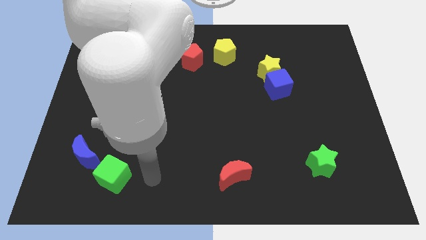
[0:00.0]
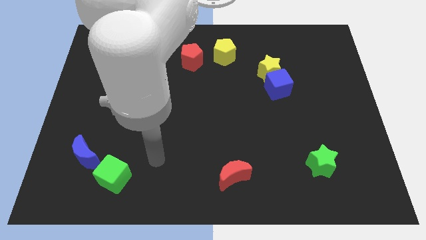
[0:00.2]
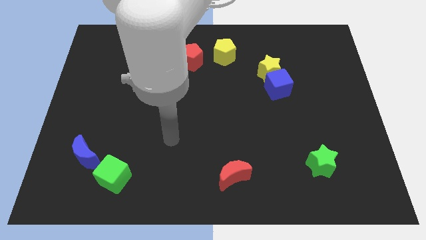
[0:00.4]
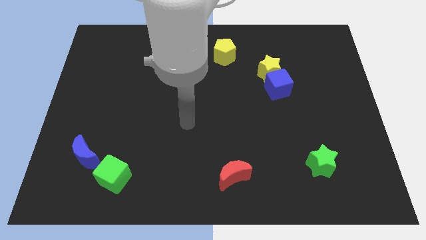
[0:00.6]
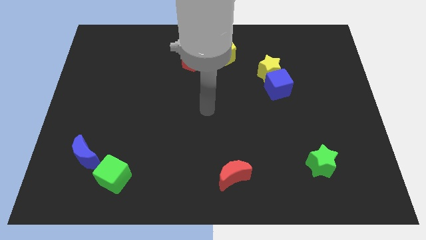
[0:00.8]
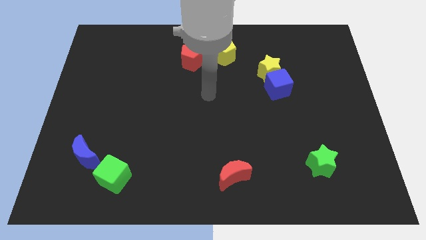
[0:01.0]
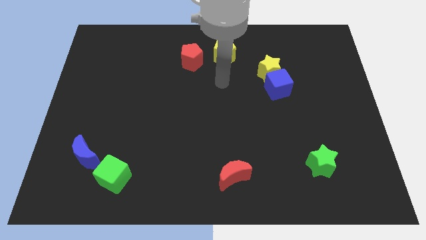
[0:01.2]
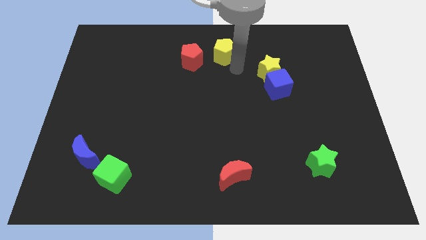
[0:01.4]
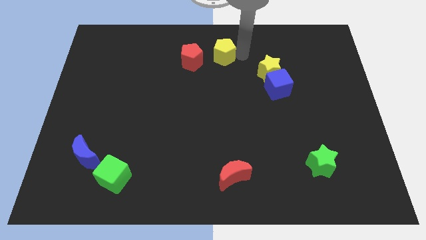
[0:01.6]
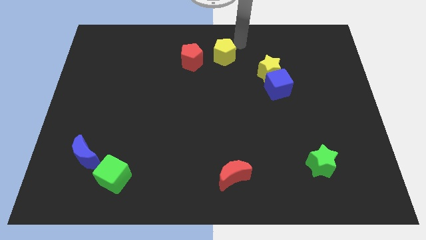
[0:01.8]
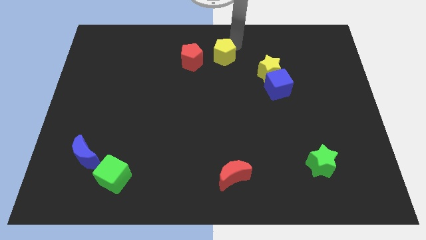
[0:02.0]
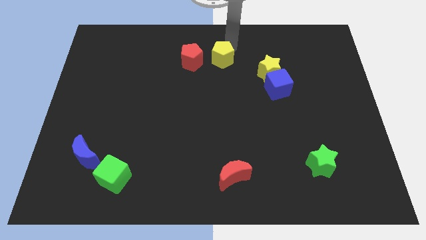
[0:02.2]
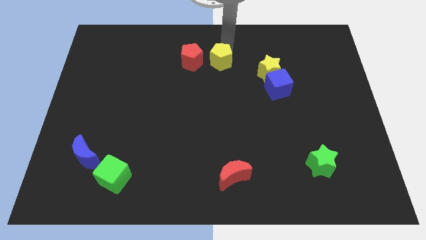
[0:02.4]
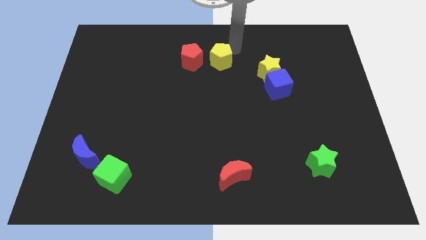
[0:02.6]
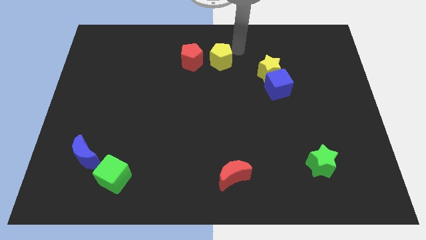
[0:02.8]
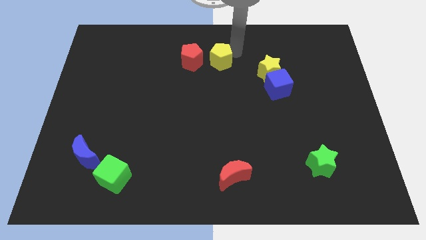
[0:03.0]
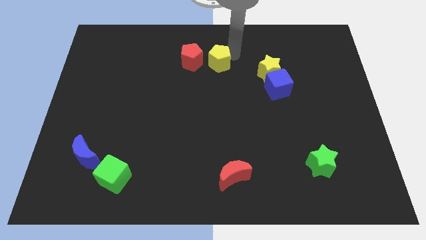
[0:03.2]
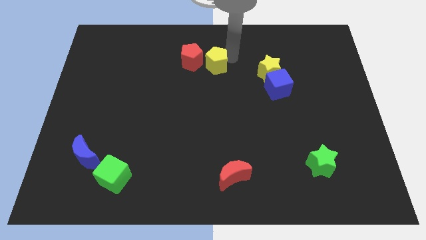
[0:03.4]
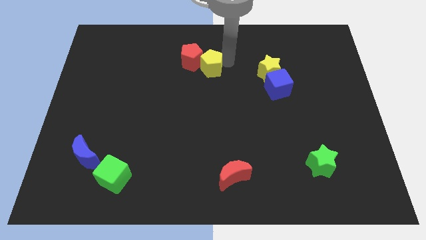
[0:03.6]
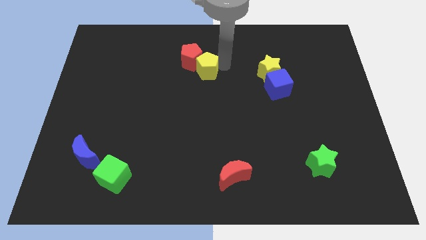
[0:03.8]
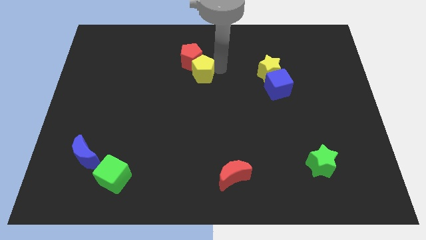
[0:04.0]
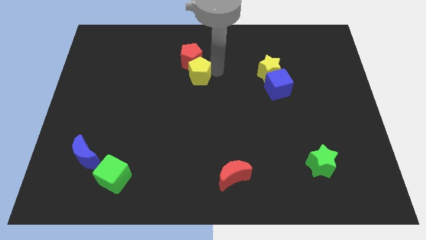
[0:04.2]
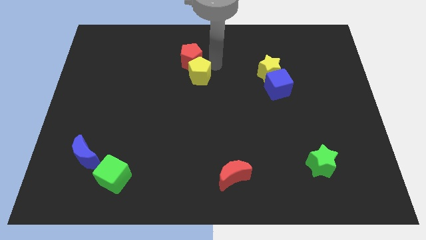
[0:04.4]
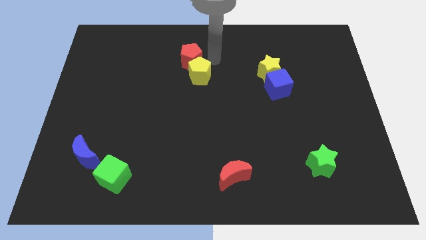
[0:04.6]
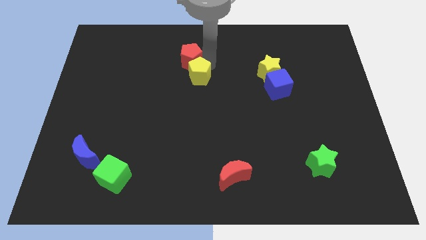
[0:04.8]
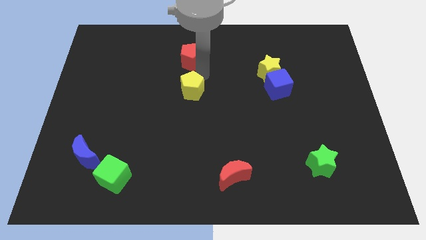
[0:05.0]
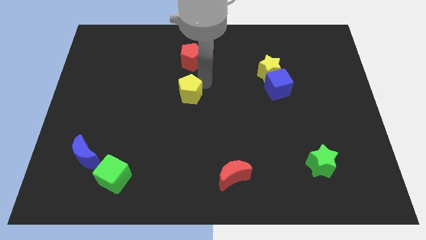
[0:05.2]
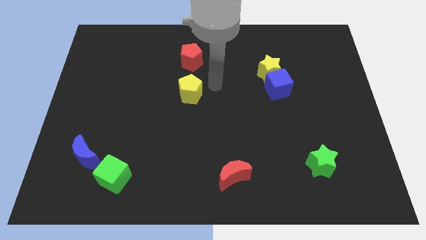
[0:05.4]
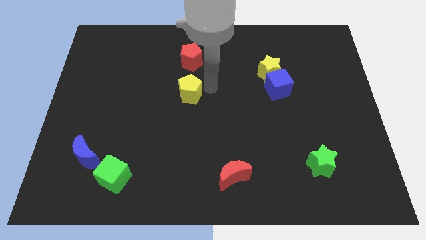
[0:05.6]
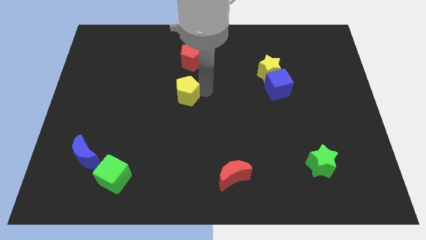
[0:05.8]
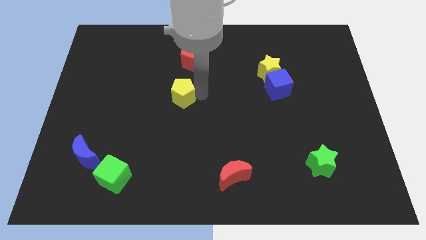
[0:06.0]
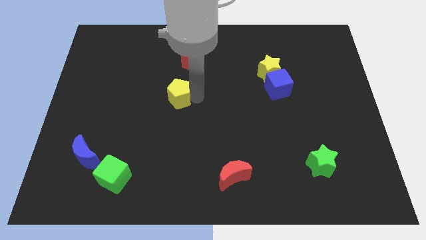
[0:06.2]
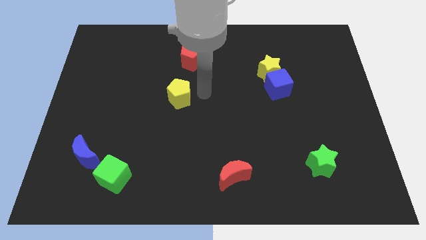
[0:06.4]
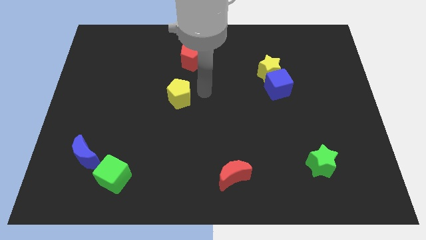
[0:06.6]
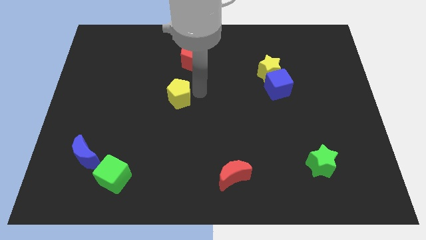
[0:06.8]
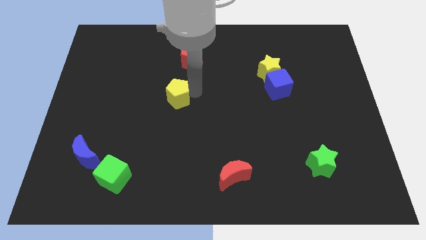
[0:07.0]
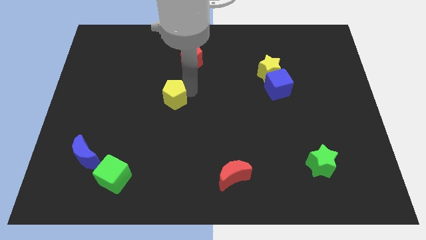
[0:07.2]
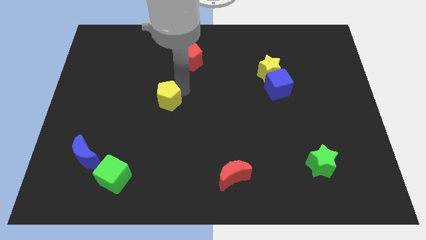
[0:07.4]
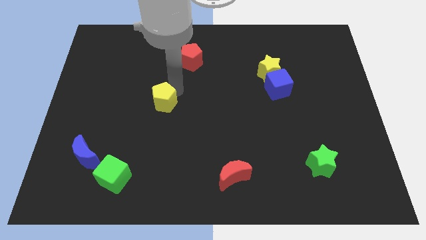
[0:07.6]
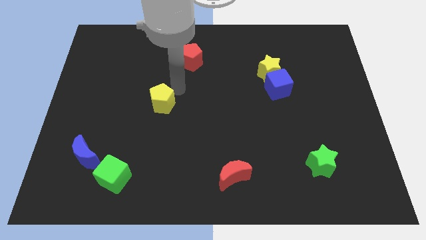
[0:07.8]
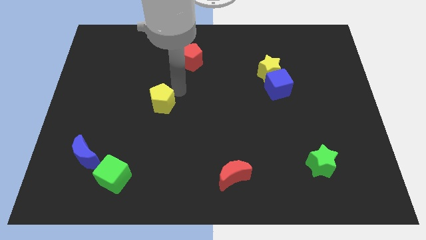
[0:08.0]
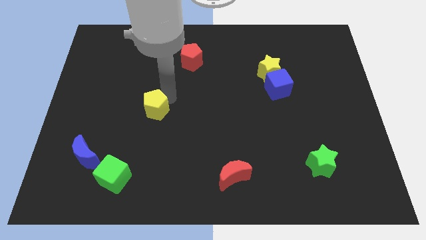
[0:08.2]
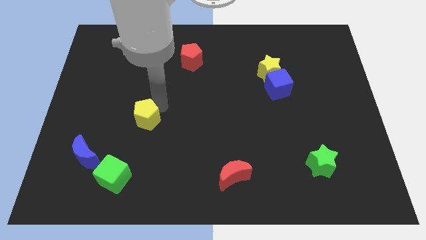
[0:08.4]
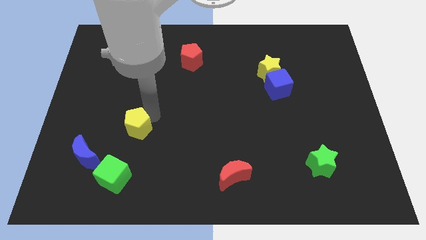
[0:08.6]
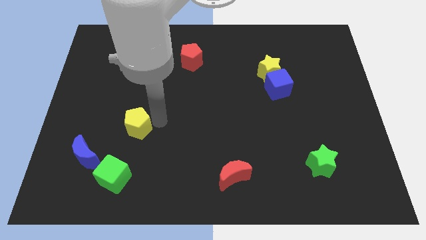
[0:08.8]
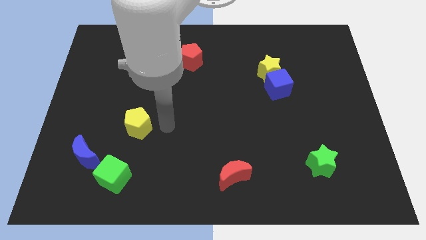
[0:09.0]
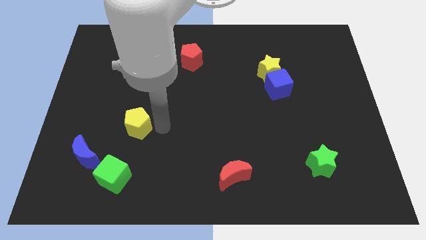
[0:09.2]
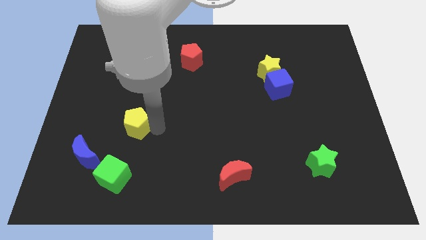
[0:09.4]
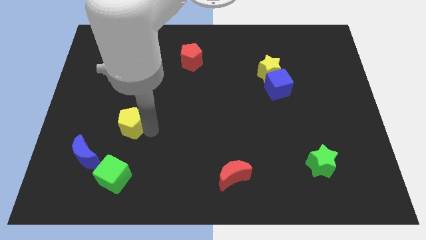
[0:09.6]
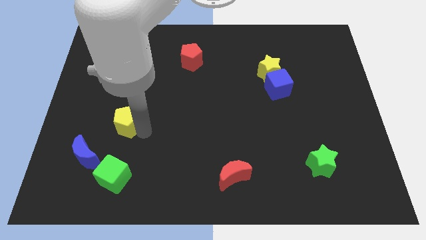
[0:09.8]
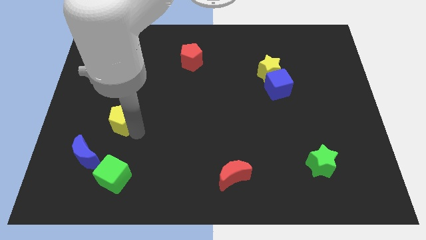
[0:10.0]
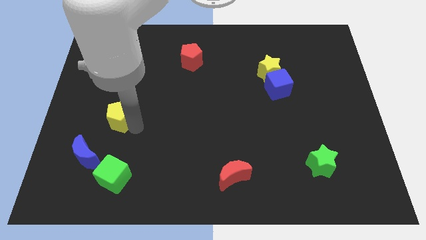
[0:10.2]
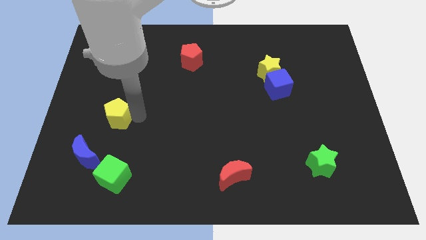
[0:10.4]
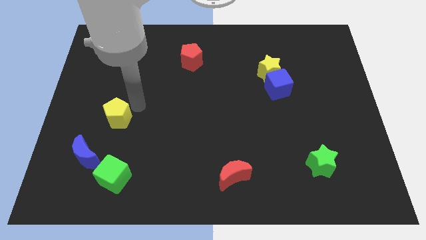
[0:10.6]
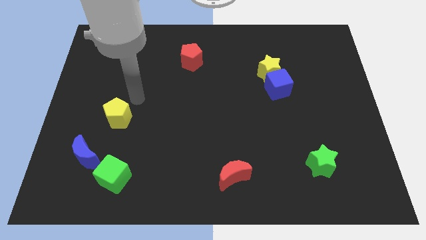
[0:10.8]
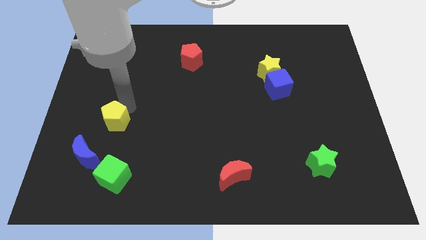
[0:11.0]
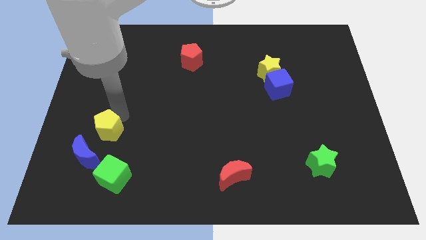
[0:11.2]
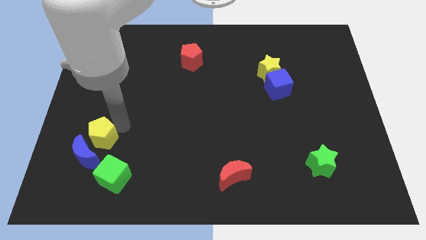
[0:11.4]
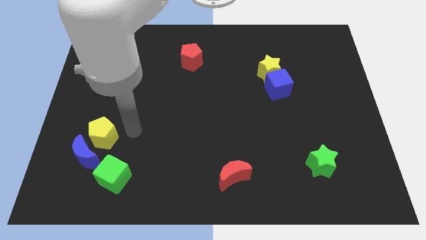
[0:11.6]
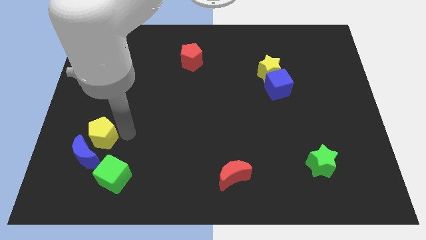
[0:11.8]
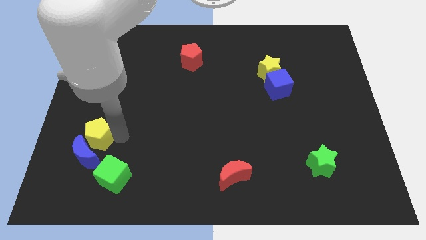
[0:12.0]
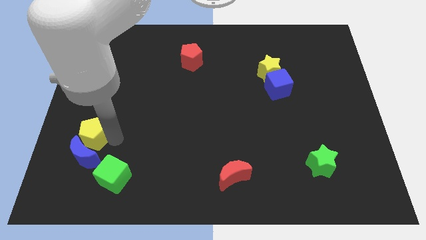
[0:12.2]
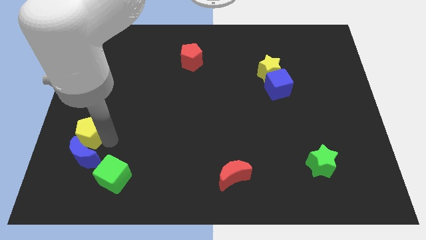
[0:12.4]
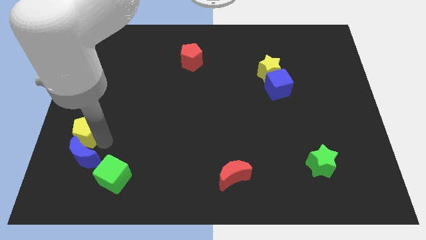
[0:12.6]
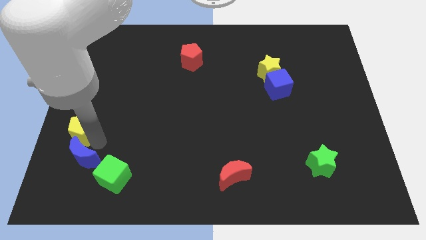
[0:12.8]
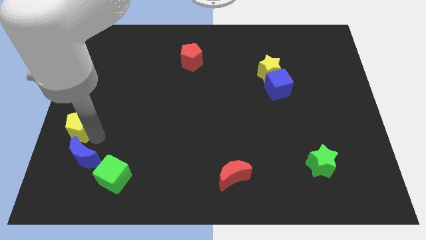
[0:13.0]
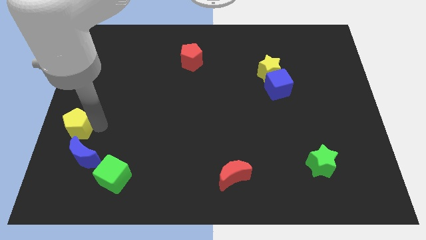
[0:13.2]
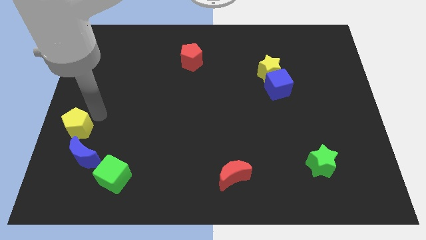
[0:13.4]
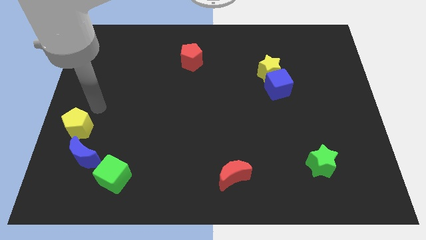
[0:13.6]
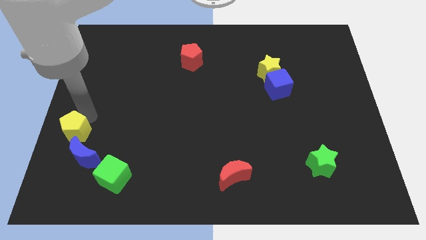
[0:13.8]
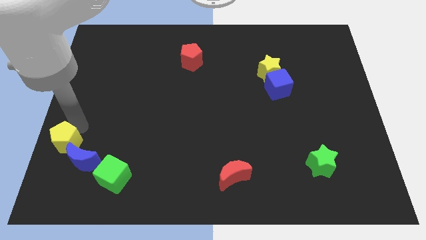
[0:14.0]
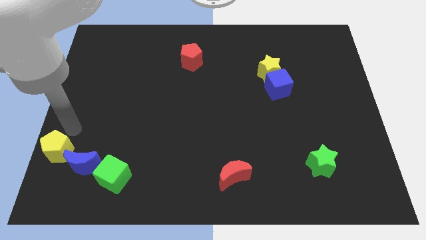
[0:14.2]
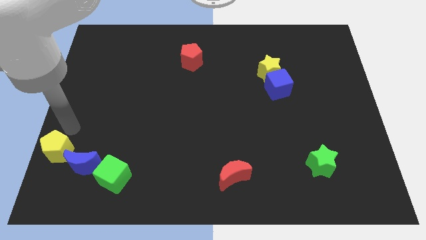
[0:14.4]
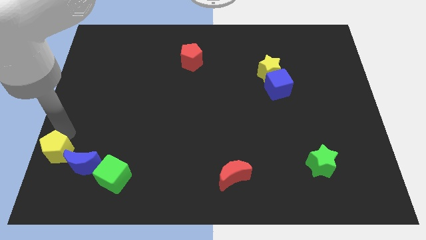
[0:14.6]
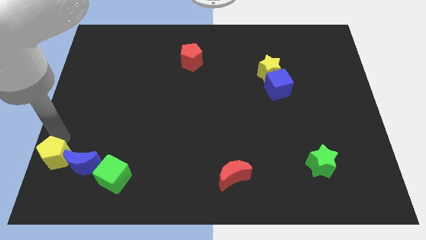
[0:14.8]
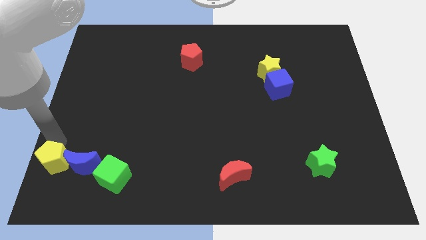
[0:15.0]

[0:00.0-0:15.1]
push the yellow pentagon to the lower left corner
